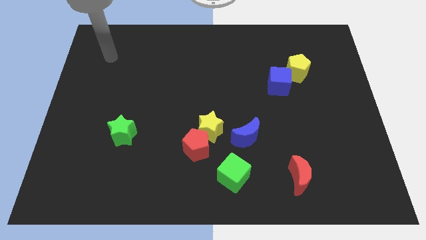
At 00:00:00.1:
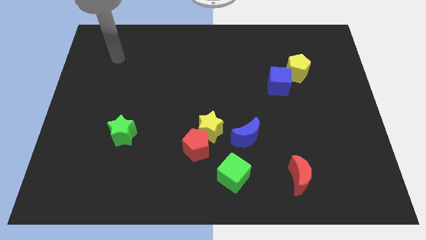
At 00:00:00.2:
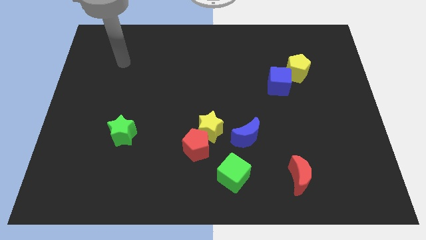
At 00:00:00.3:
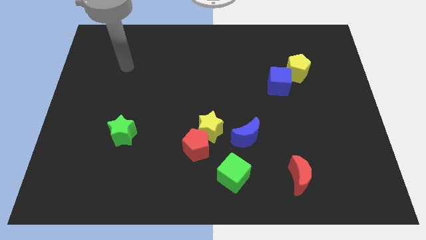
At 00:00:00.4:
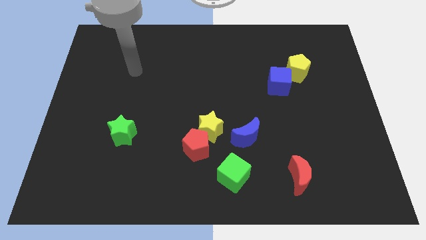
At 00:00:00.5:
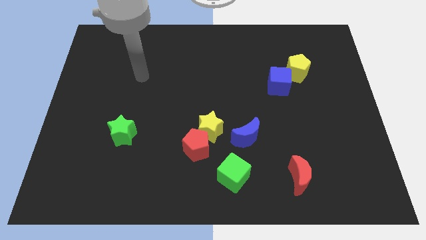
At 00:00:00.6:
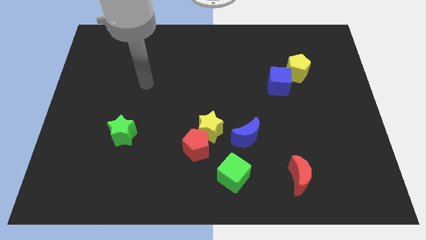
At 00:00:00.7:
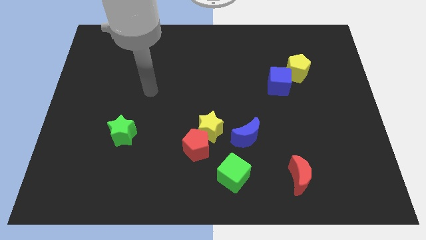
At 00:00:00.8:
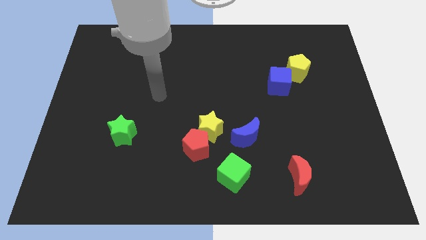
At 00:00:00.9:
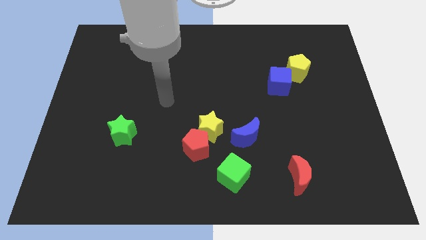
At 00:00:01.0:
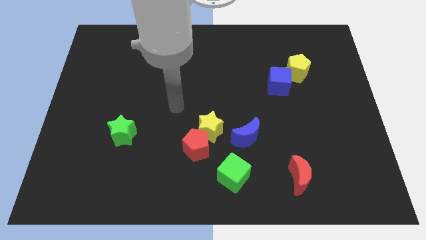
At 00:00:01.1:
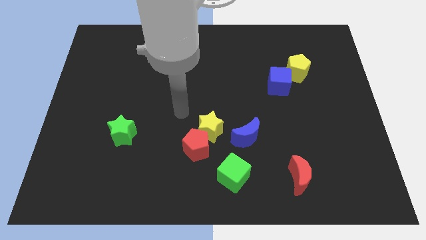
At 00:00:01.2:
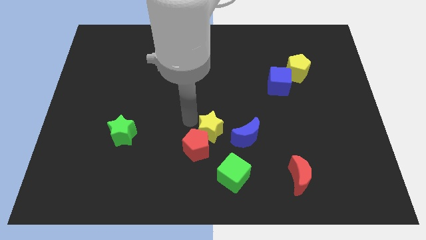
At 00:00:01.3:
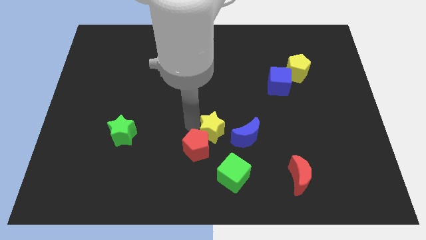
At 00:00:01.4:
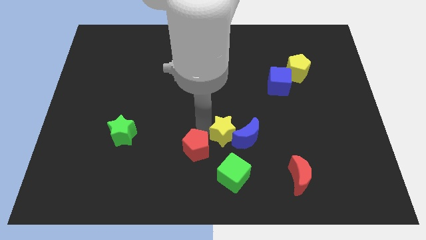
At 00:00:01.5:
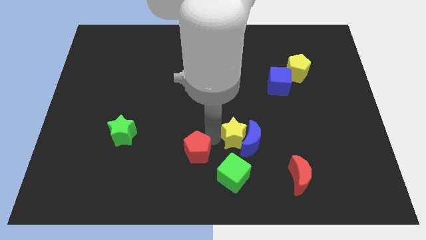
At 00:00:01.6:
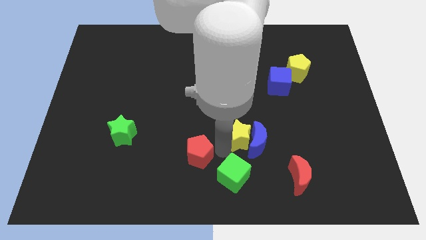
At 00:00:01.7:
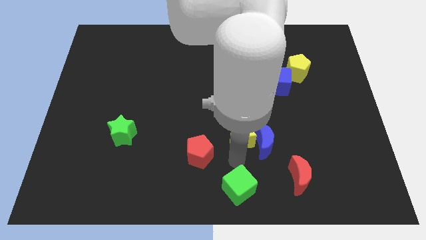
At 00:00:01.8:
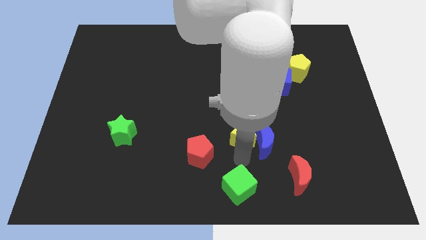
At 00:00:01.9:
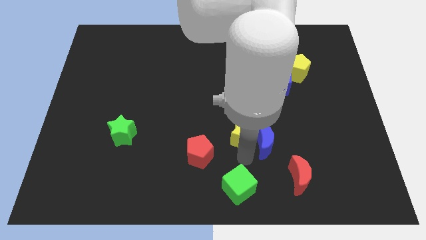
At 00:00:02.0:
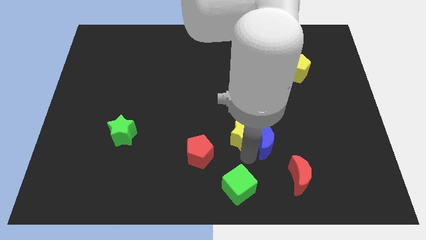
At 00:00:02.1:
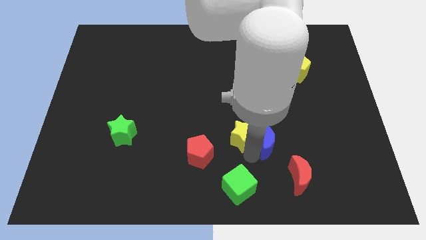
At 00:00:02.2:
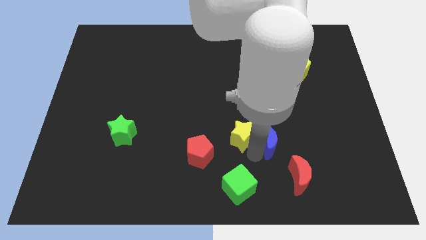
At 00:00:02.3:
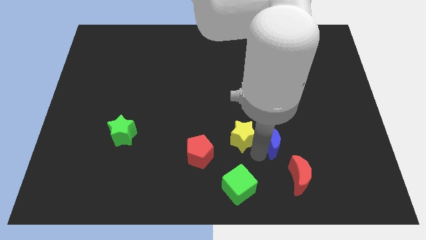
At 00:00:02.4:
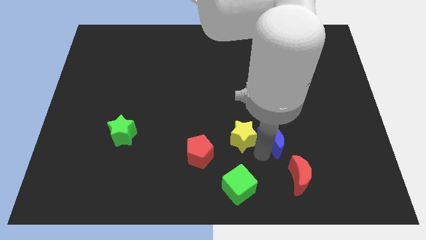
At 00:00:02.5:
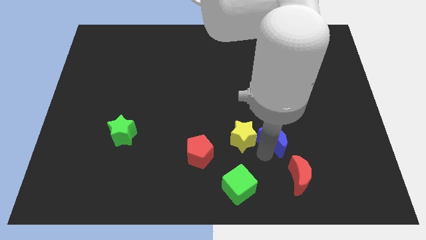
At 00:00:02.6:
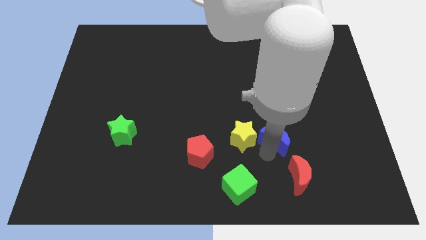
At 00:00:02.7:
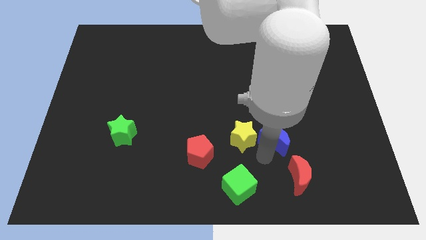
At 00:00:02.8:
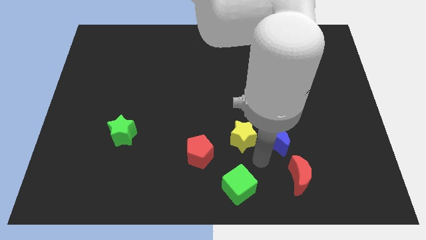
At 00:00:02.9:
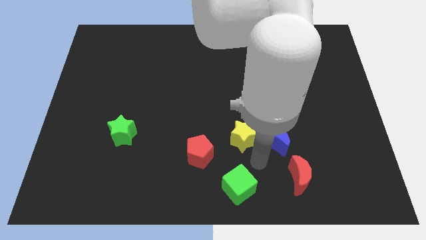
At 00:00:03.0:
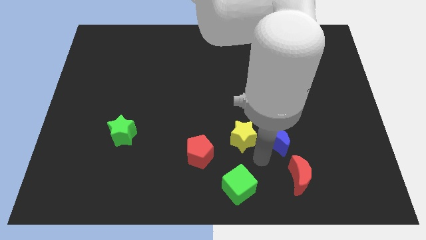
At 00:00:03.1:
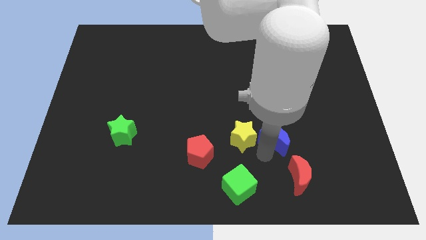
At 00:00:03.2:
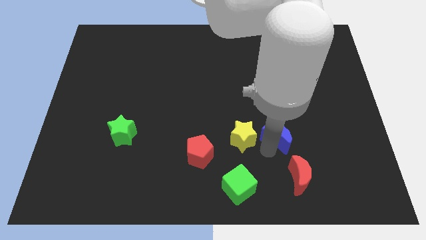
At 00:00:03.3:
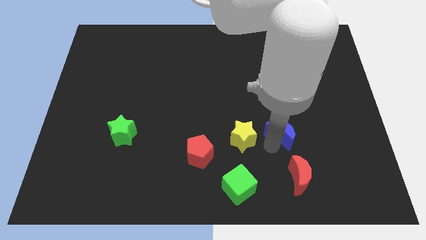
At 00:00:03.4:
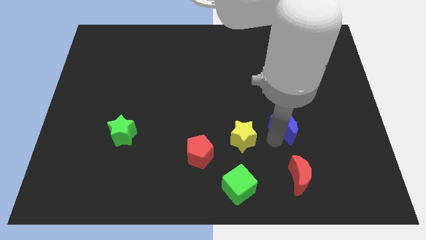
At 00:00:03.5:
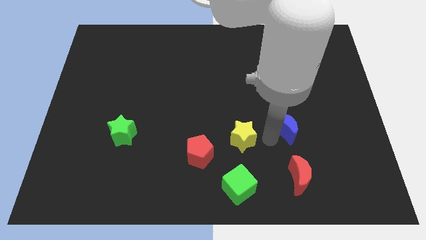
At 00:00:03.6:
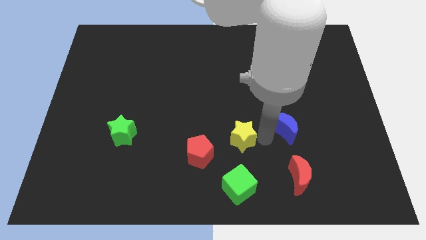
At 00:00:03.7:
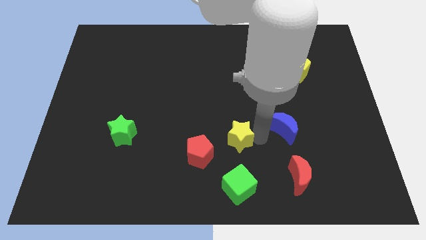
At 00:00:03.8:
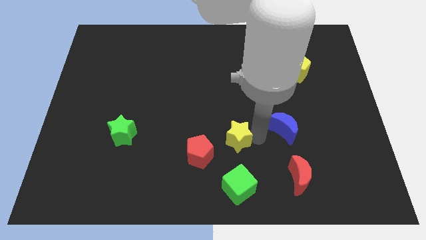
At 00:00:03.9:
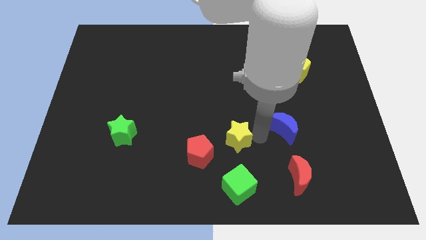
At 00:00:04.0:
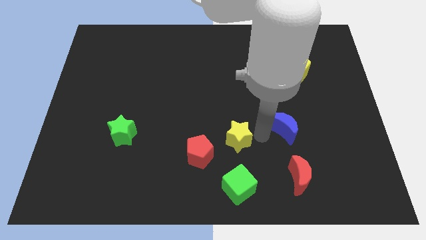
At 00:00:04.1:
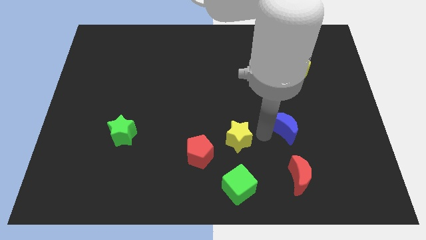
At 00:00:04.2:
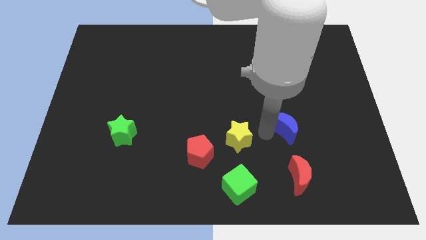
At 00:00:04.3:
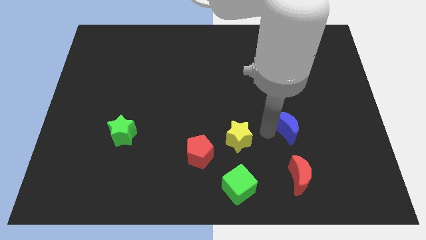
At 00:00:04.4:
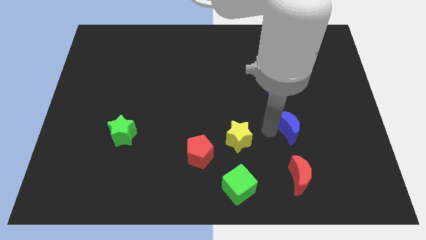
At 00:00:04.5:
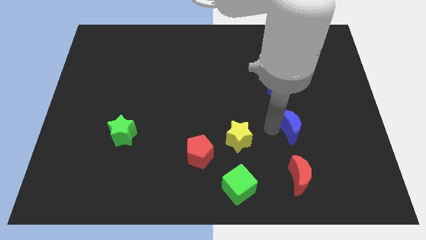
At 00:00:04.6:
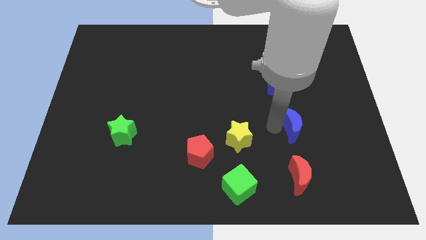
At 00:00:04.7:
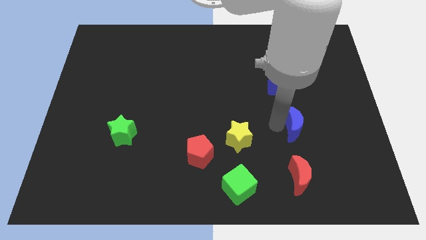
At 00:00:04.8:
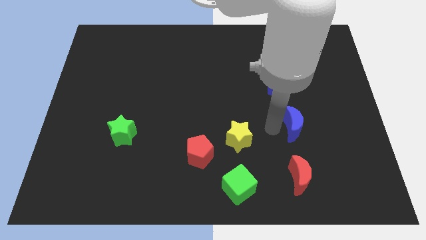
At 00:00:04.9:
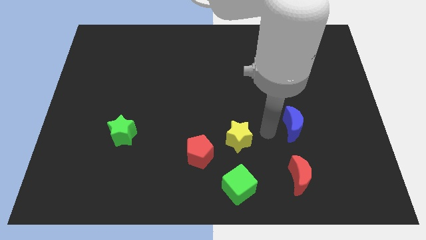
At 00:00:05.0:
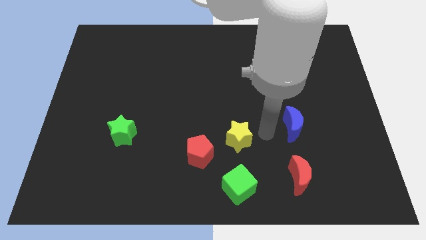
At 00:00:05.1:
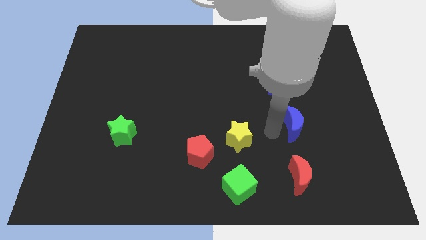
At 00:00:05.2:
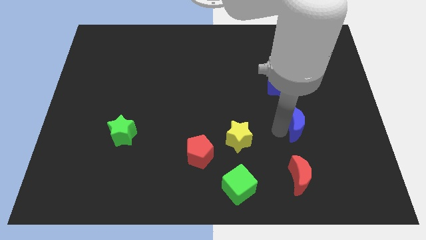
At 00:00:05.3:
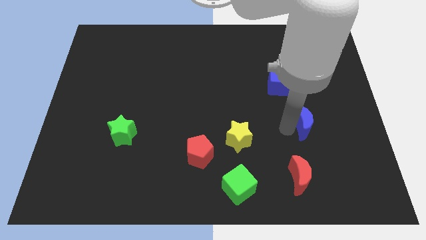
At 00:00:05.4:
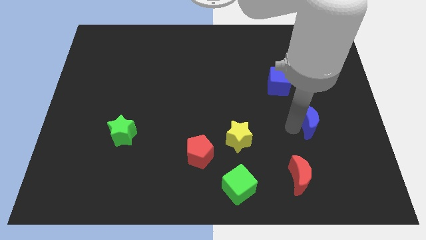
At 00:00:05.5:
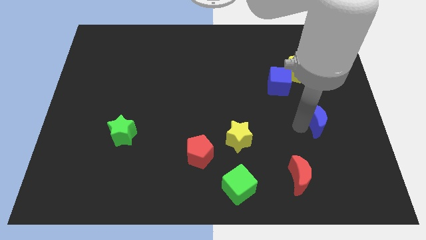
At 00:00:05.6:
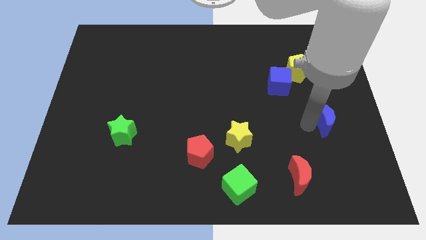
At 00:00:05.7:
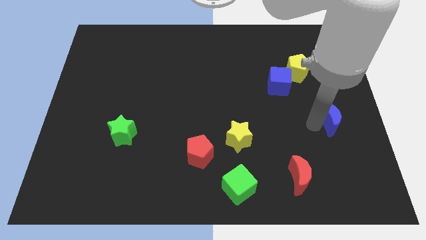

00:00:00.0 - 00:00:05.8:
move the blue moon to the right side of the board

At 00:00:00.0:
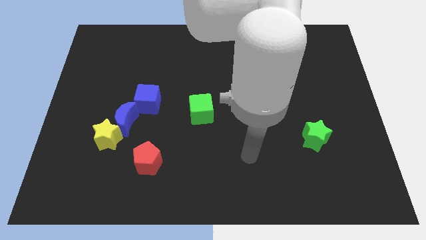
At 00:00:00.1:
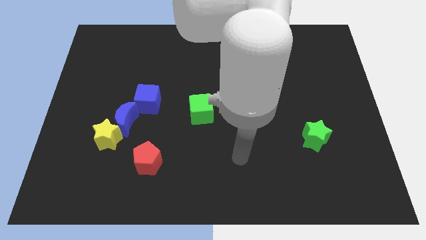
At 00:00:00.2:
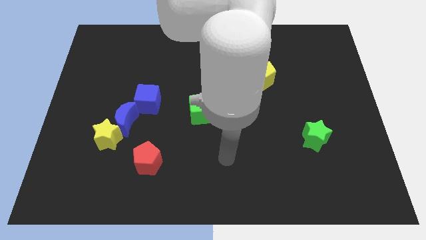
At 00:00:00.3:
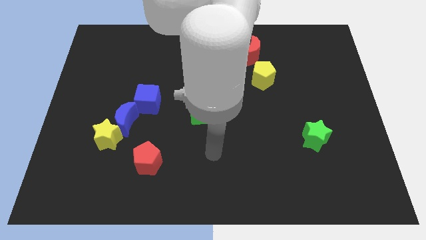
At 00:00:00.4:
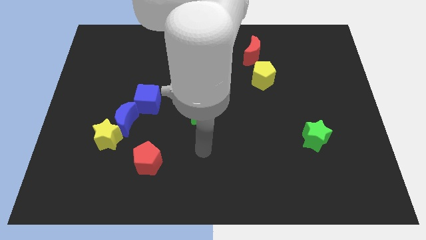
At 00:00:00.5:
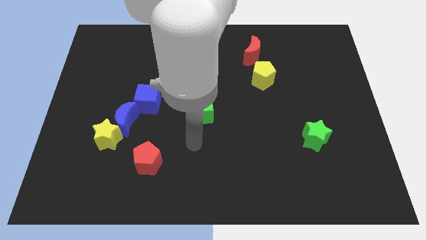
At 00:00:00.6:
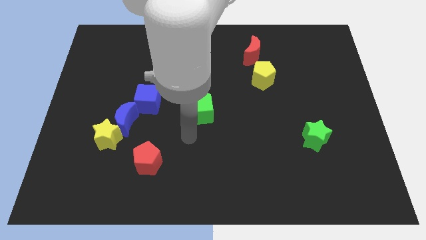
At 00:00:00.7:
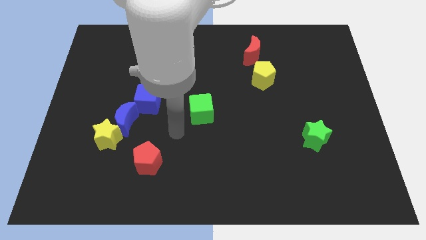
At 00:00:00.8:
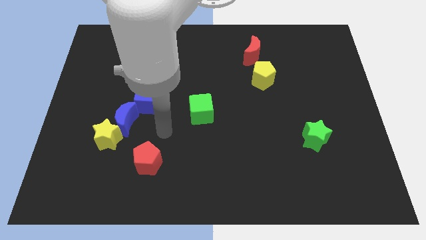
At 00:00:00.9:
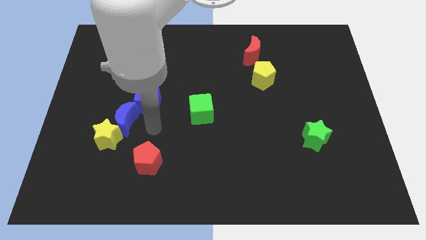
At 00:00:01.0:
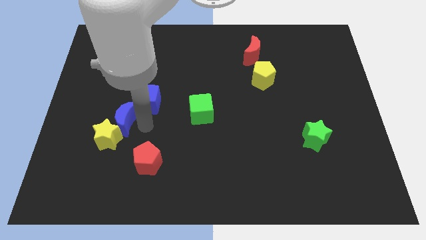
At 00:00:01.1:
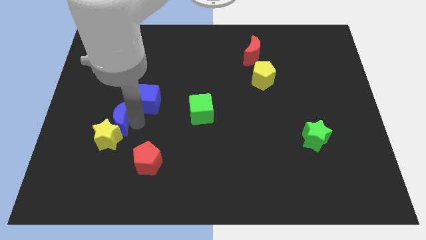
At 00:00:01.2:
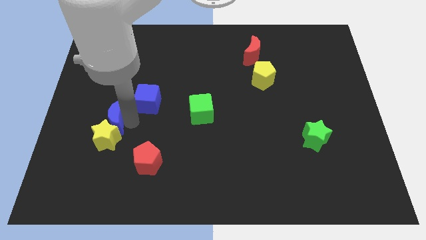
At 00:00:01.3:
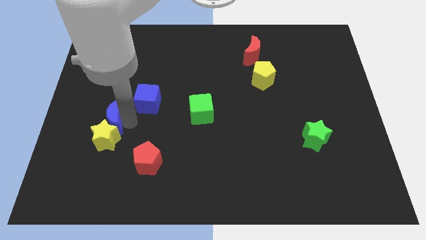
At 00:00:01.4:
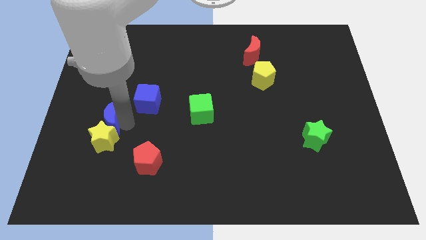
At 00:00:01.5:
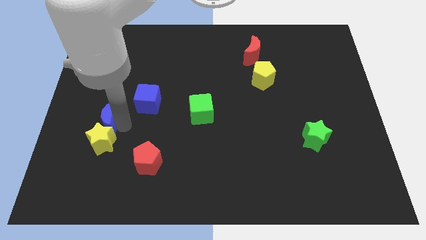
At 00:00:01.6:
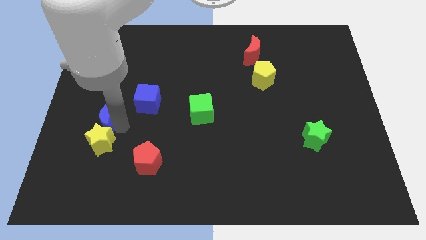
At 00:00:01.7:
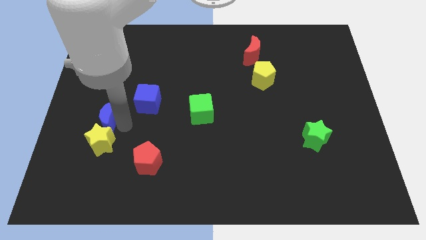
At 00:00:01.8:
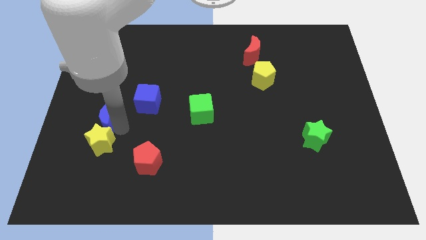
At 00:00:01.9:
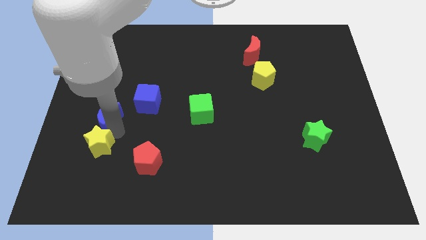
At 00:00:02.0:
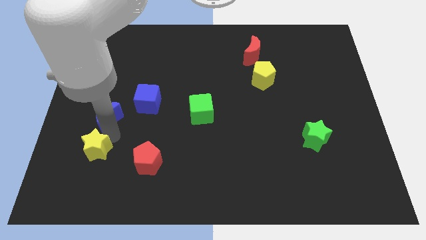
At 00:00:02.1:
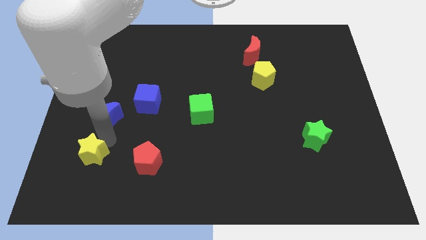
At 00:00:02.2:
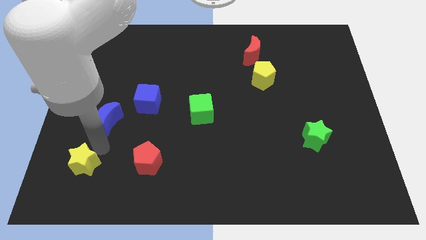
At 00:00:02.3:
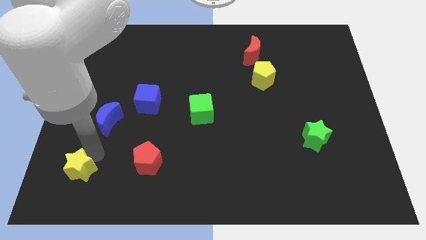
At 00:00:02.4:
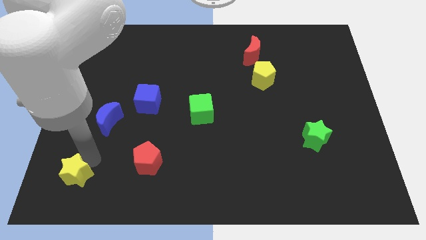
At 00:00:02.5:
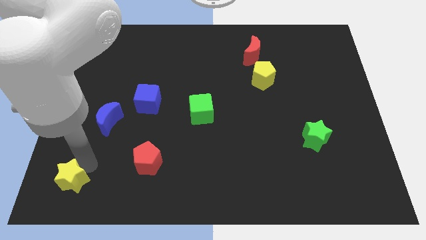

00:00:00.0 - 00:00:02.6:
push the yellow star to the bottom left corner
